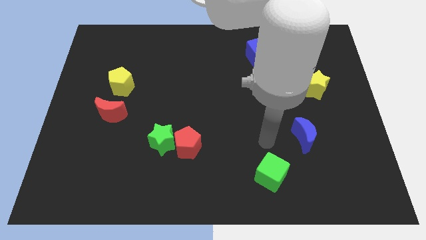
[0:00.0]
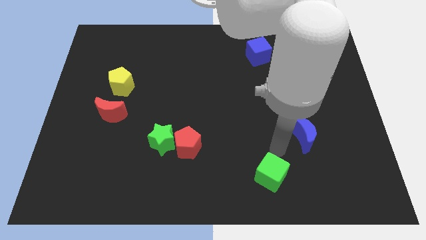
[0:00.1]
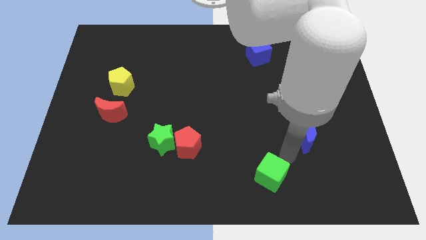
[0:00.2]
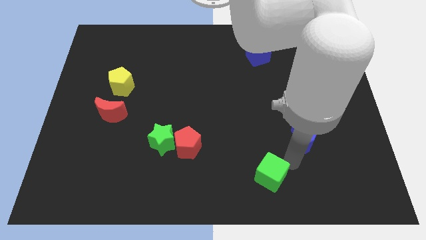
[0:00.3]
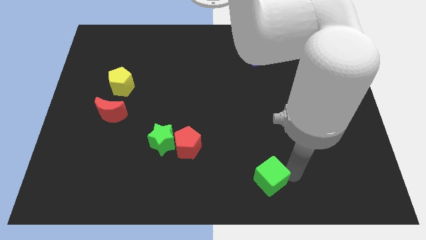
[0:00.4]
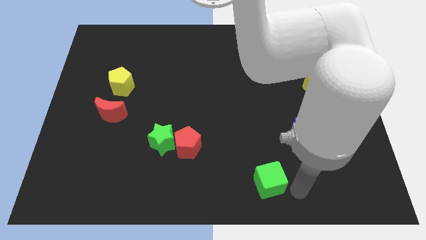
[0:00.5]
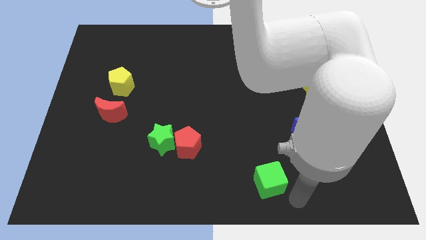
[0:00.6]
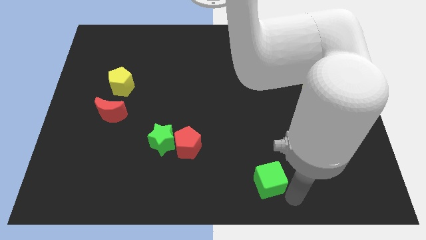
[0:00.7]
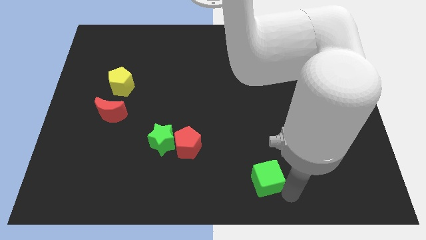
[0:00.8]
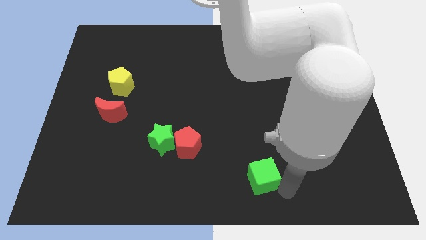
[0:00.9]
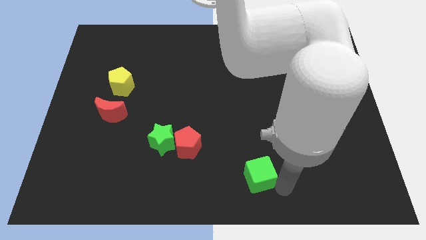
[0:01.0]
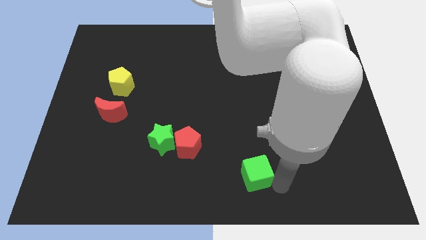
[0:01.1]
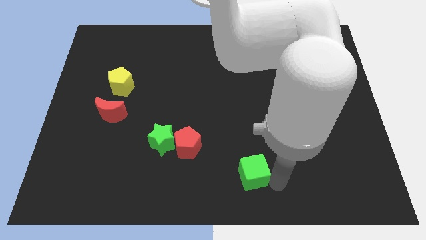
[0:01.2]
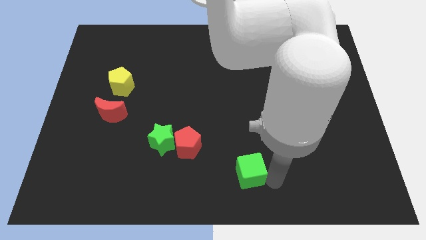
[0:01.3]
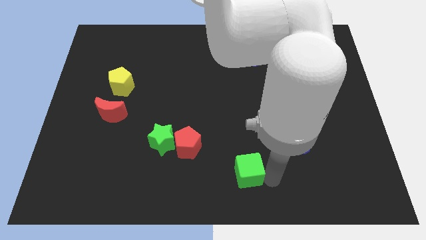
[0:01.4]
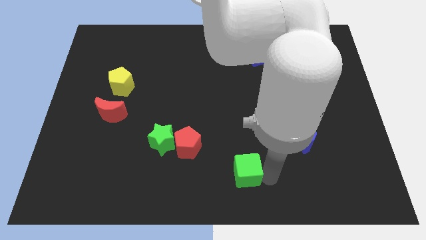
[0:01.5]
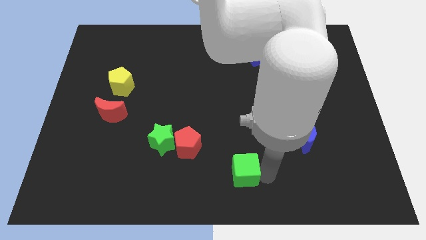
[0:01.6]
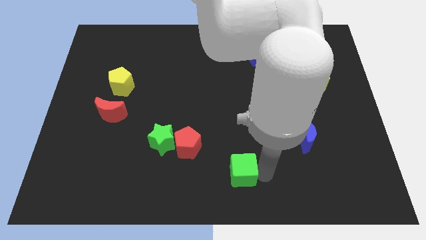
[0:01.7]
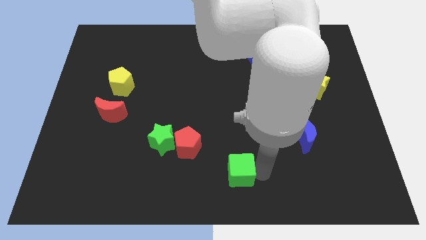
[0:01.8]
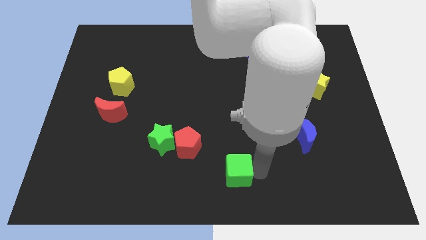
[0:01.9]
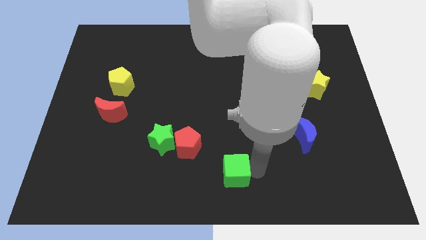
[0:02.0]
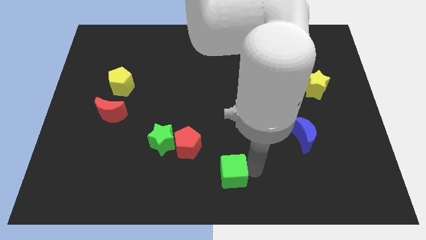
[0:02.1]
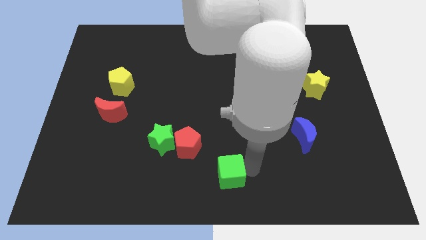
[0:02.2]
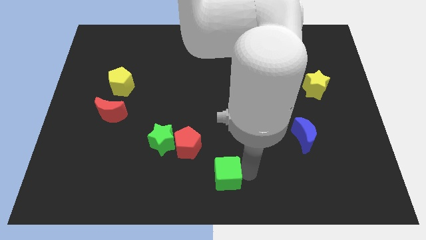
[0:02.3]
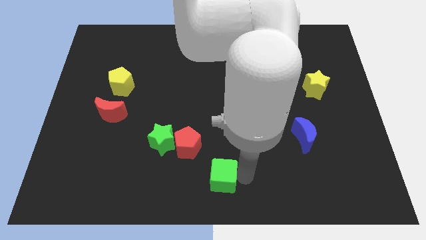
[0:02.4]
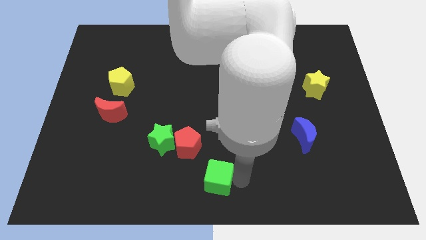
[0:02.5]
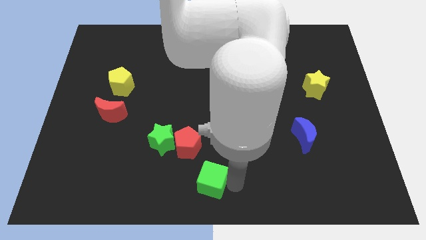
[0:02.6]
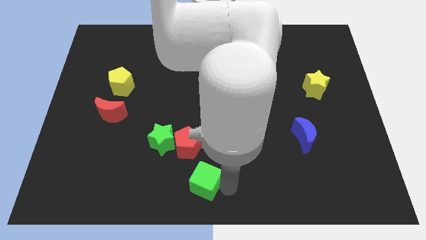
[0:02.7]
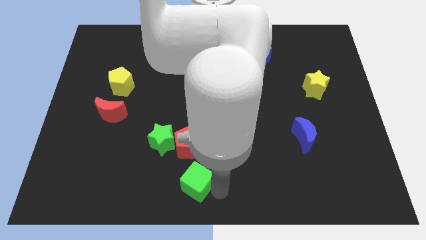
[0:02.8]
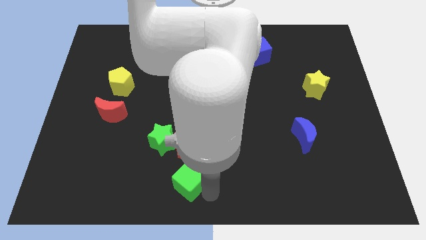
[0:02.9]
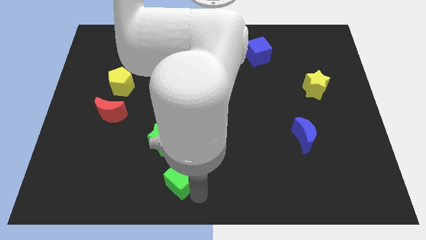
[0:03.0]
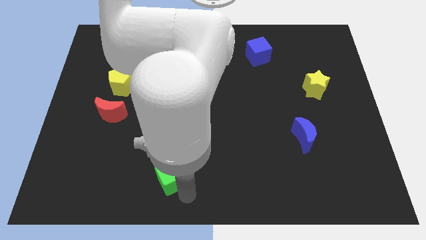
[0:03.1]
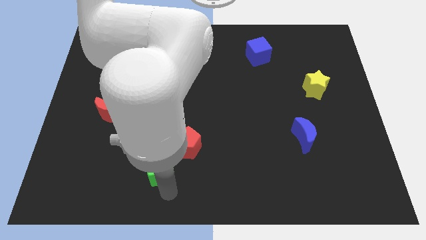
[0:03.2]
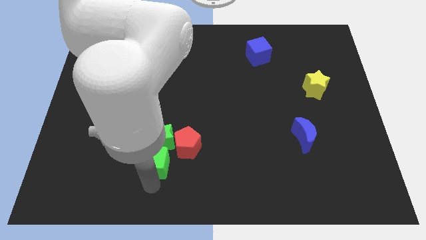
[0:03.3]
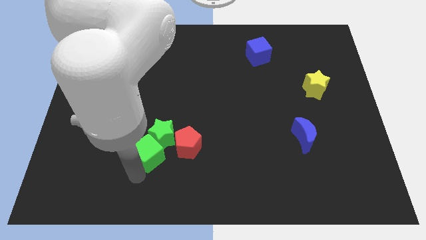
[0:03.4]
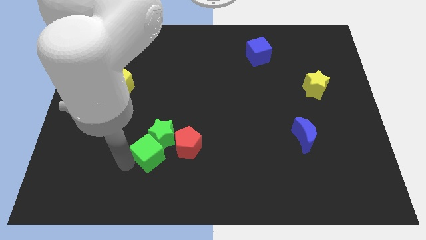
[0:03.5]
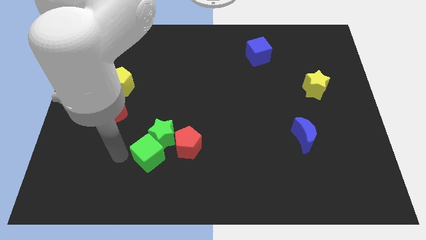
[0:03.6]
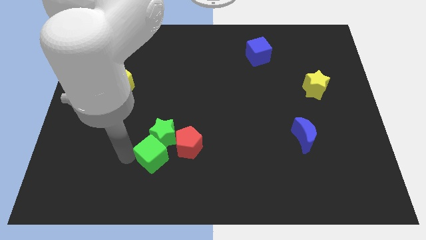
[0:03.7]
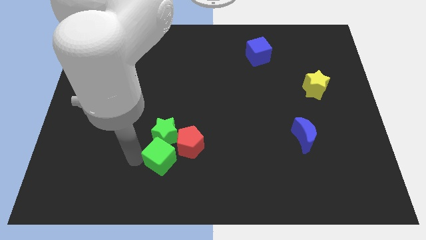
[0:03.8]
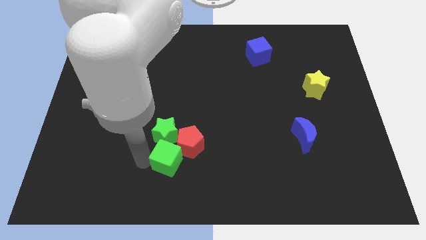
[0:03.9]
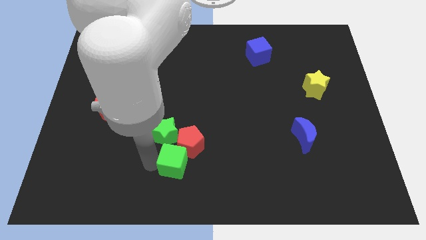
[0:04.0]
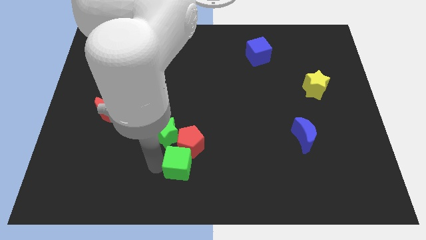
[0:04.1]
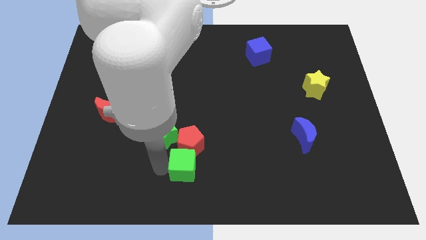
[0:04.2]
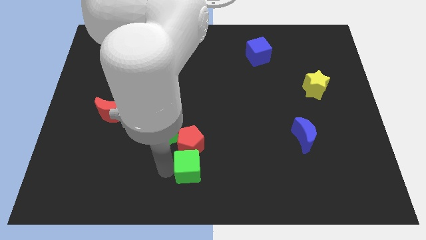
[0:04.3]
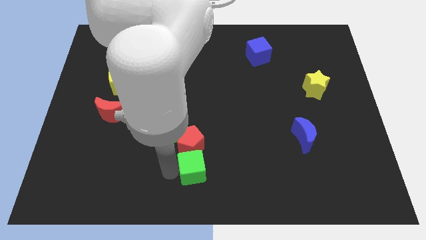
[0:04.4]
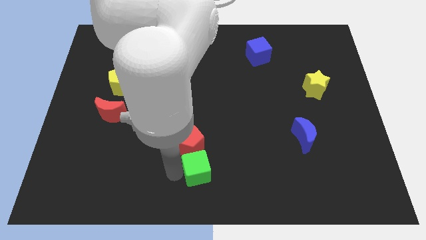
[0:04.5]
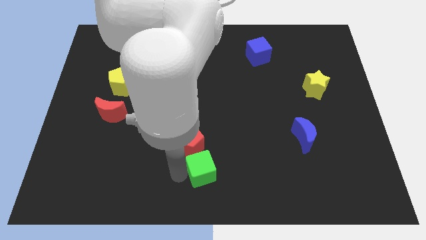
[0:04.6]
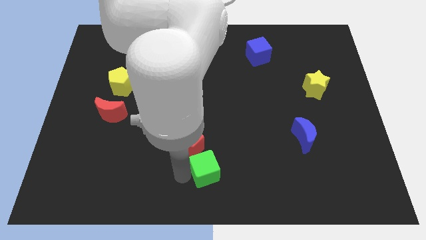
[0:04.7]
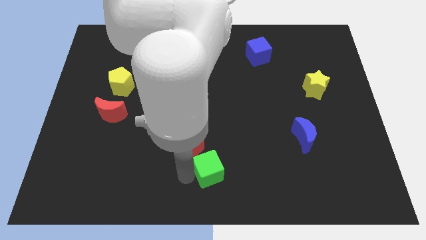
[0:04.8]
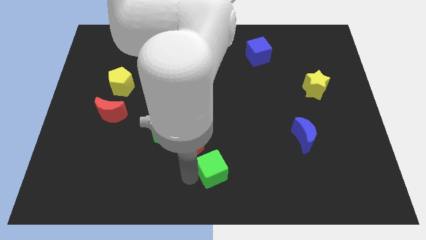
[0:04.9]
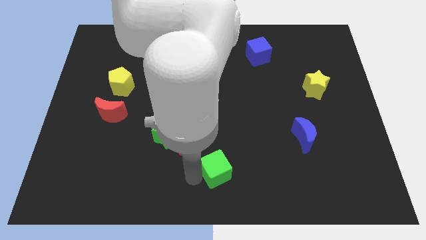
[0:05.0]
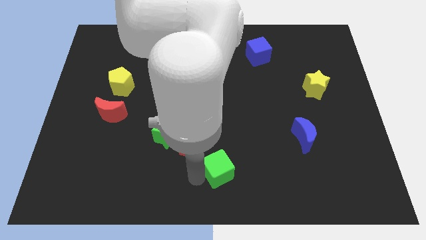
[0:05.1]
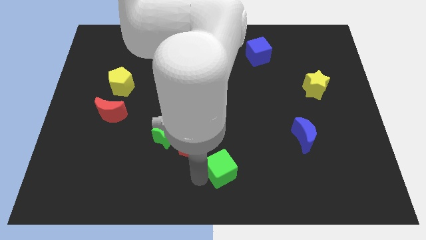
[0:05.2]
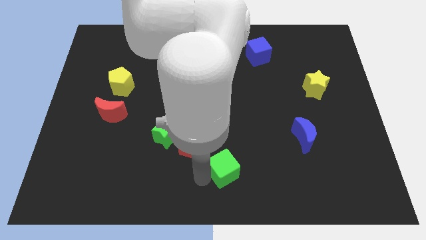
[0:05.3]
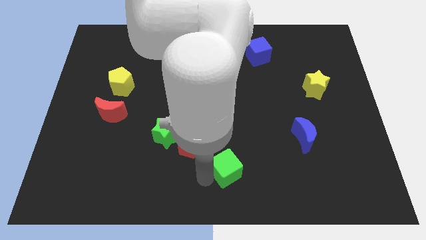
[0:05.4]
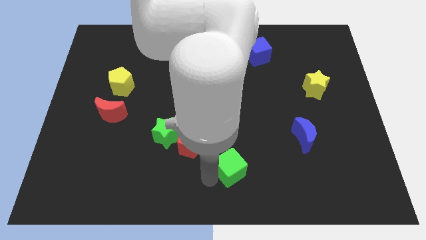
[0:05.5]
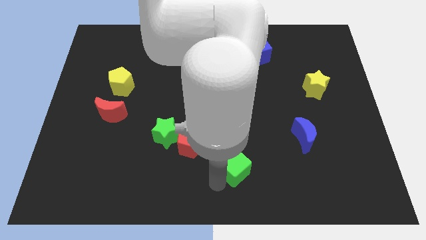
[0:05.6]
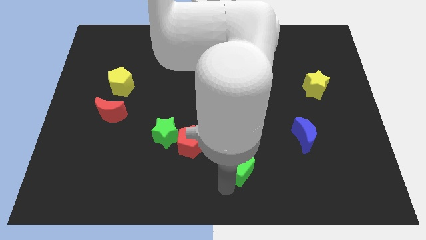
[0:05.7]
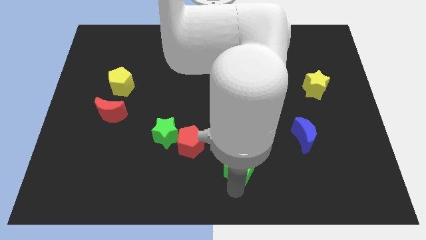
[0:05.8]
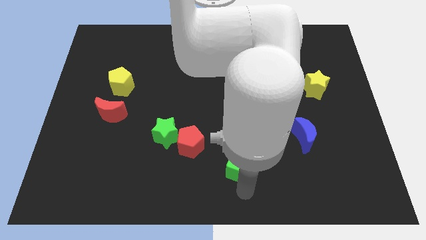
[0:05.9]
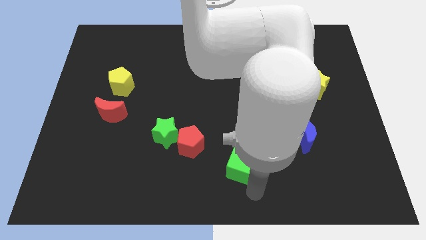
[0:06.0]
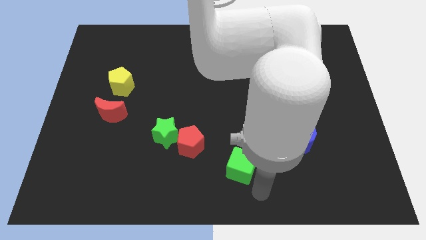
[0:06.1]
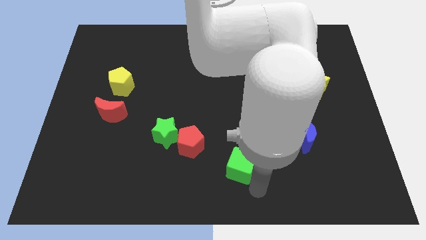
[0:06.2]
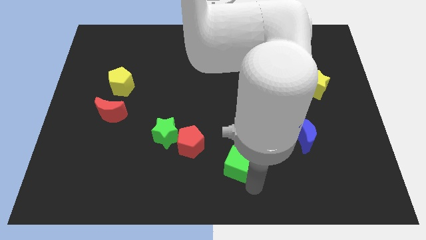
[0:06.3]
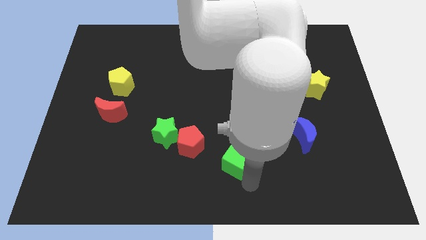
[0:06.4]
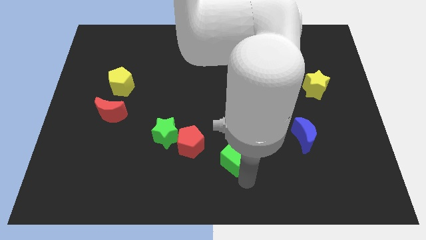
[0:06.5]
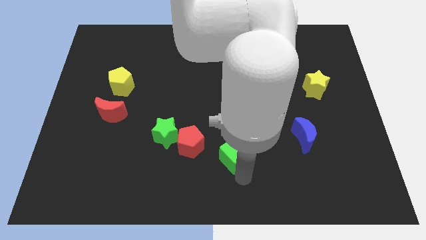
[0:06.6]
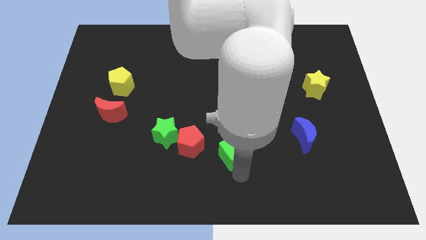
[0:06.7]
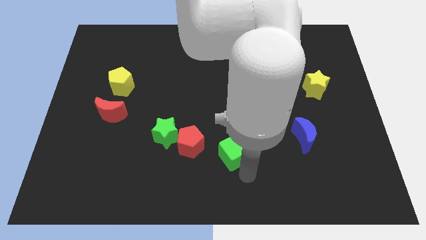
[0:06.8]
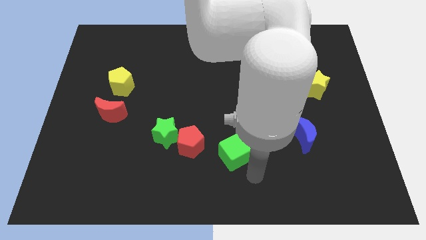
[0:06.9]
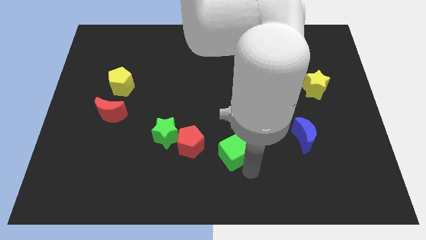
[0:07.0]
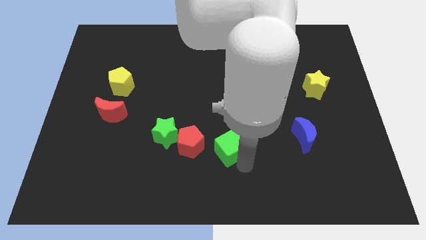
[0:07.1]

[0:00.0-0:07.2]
slide the green cube right of the green star
